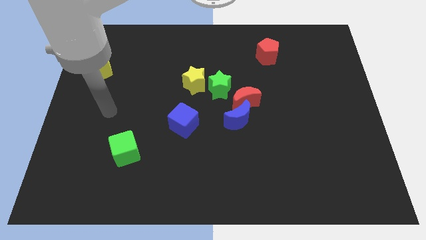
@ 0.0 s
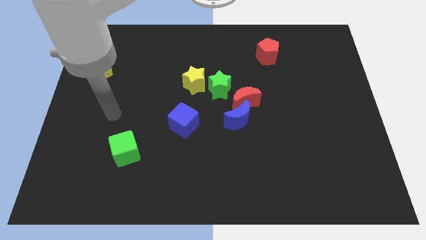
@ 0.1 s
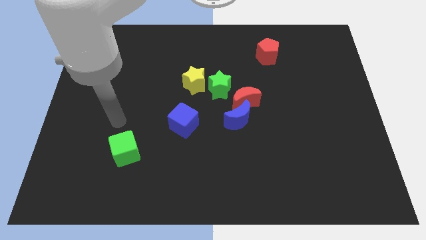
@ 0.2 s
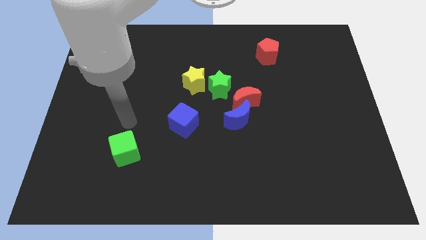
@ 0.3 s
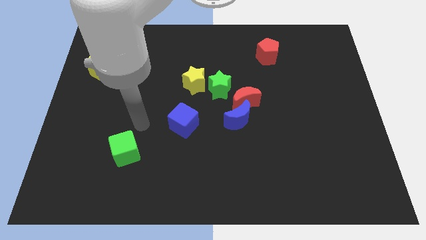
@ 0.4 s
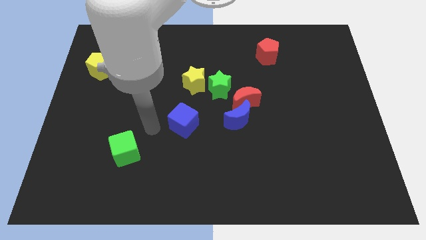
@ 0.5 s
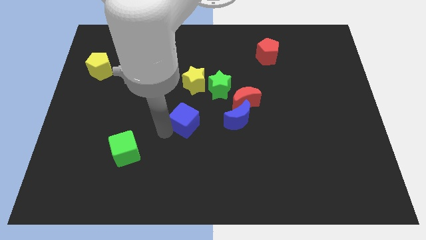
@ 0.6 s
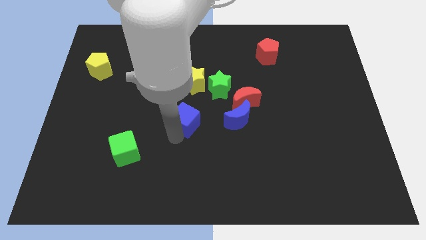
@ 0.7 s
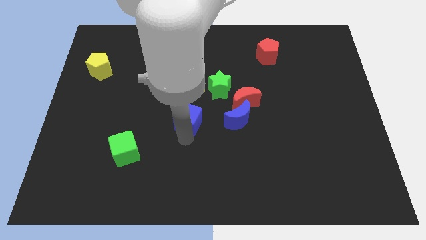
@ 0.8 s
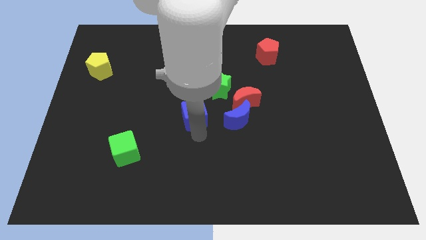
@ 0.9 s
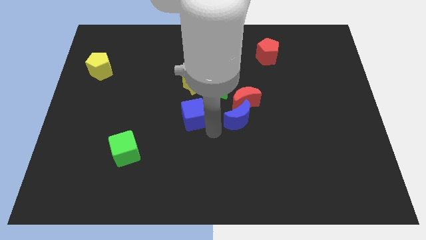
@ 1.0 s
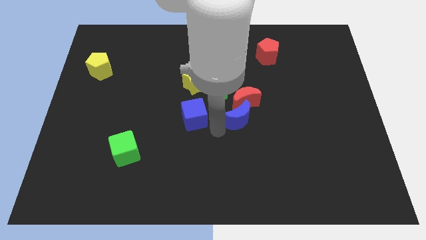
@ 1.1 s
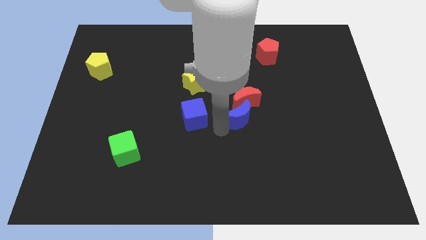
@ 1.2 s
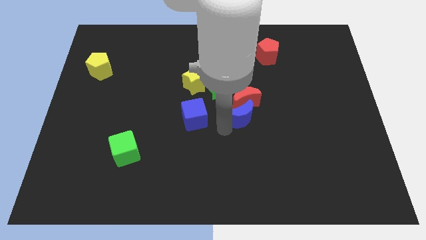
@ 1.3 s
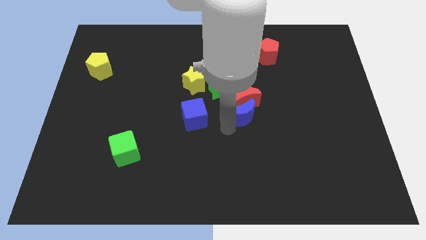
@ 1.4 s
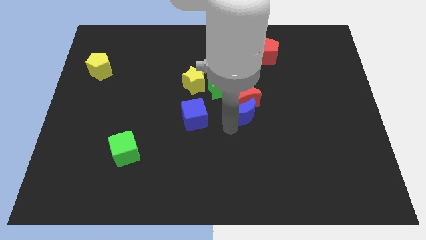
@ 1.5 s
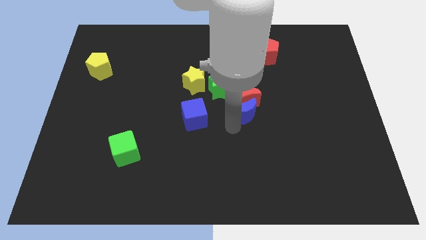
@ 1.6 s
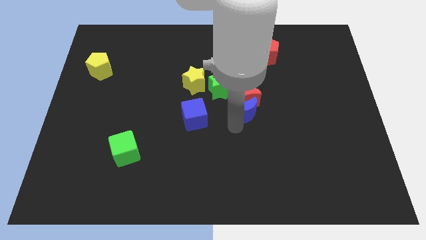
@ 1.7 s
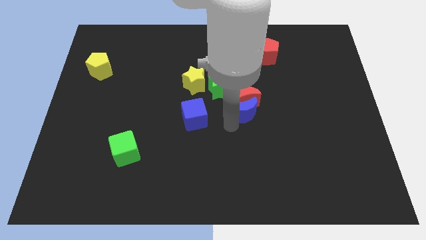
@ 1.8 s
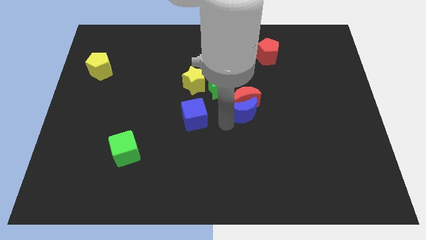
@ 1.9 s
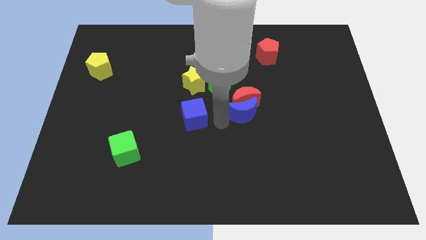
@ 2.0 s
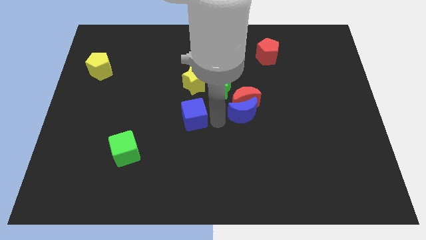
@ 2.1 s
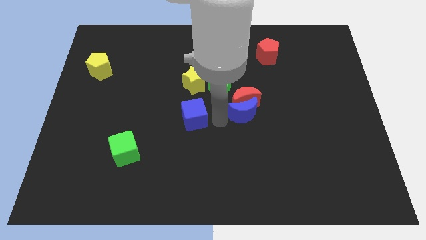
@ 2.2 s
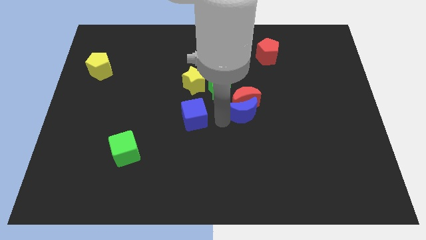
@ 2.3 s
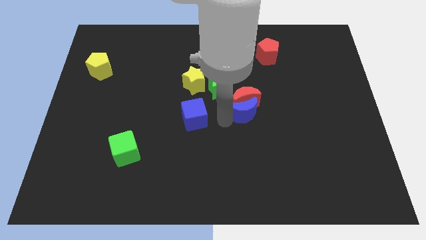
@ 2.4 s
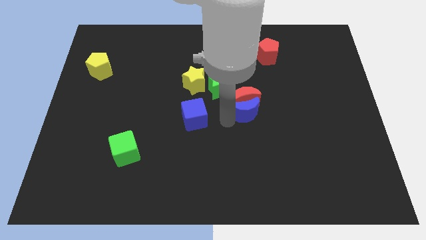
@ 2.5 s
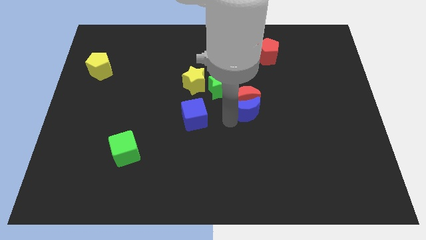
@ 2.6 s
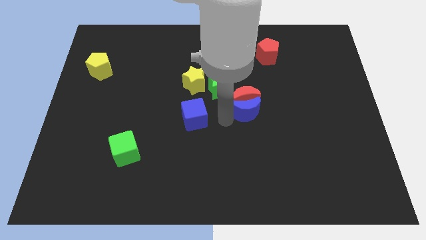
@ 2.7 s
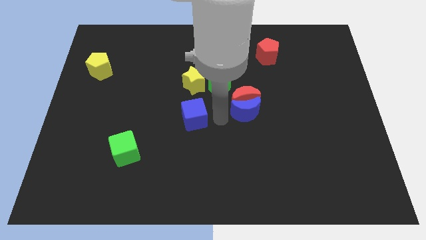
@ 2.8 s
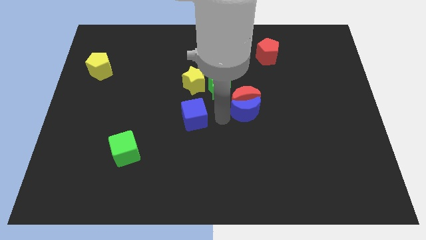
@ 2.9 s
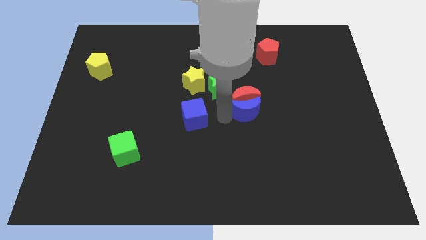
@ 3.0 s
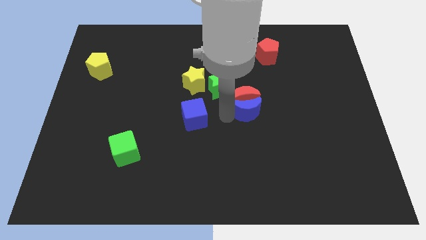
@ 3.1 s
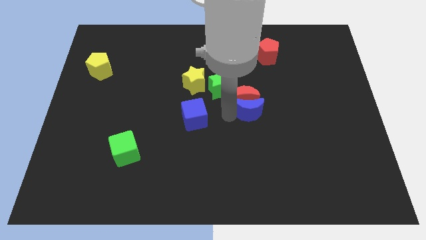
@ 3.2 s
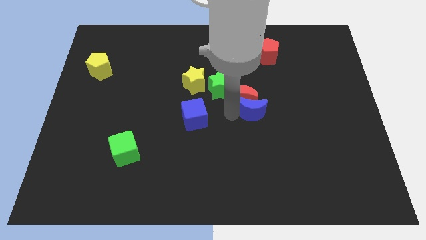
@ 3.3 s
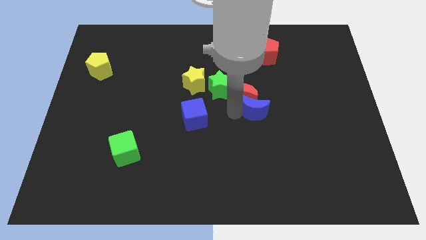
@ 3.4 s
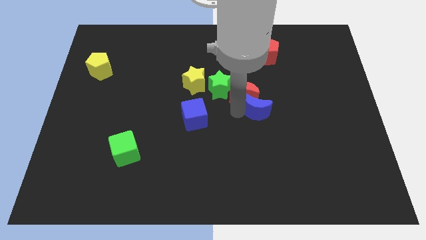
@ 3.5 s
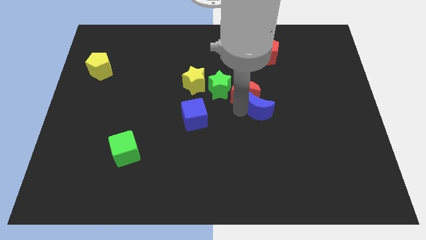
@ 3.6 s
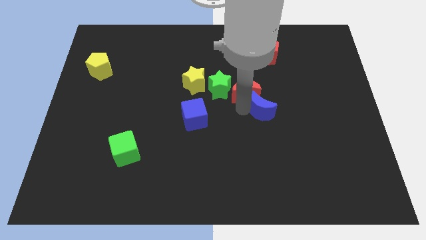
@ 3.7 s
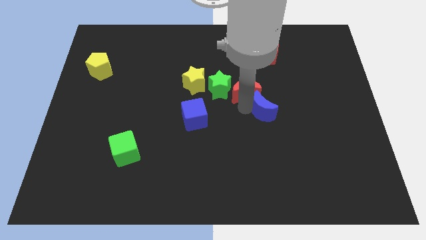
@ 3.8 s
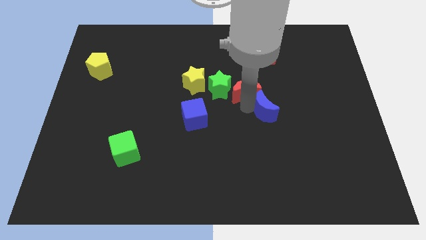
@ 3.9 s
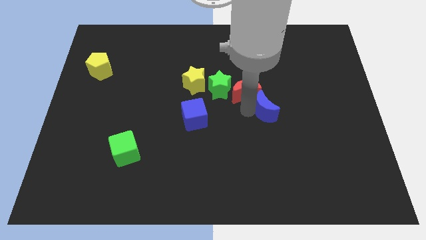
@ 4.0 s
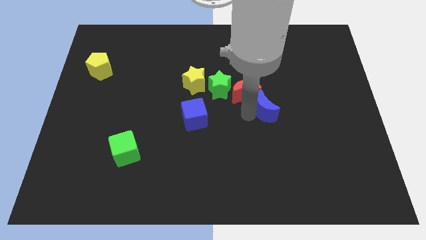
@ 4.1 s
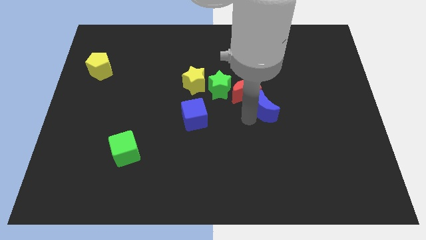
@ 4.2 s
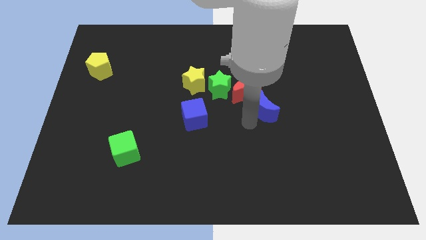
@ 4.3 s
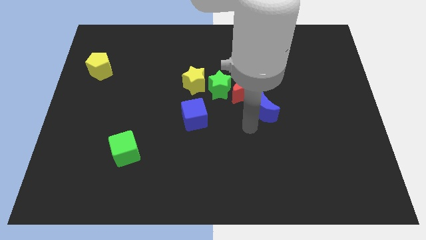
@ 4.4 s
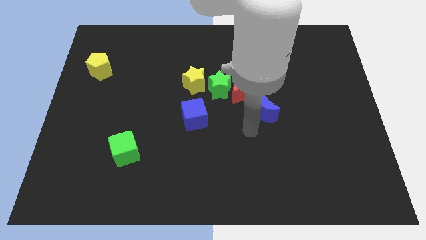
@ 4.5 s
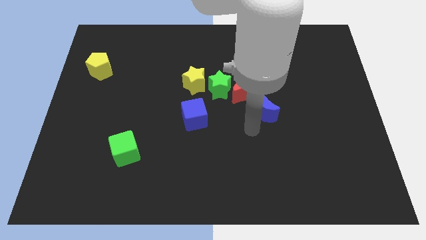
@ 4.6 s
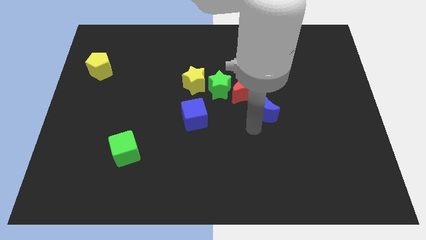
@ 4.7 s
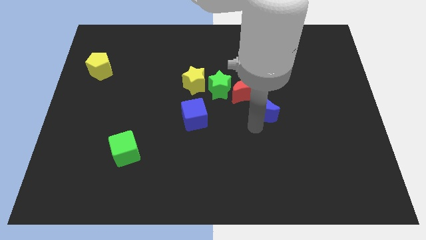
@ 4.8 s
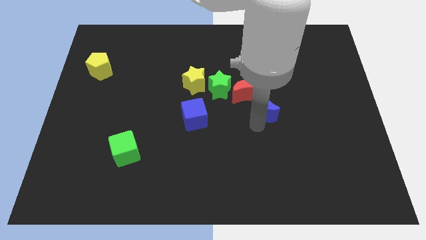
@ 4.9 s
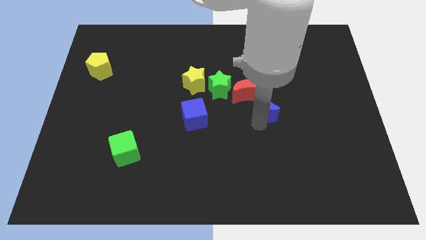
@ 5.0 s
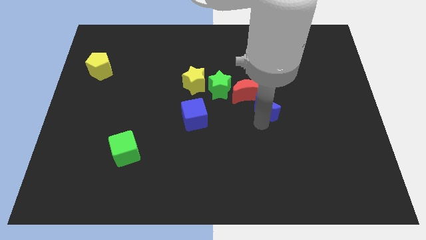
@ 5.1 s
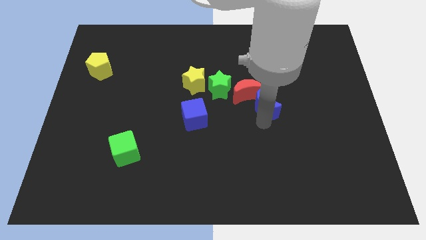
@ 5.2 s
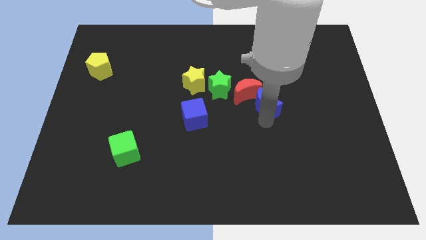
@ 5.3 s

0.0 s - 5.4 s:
slightly move the blue moon diagonally up and right

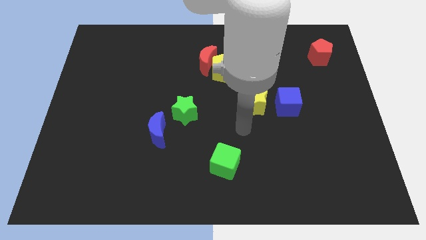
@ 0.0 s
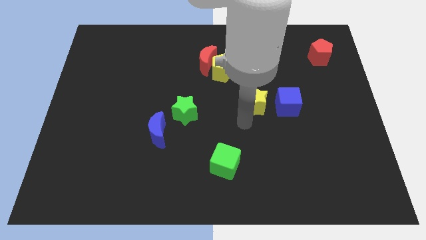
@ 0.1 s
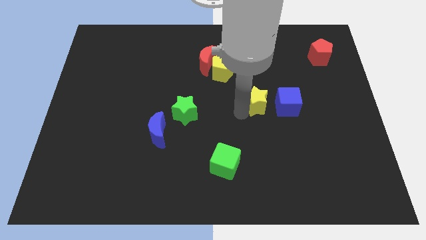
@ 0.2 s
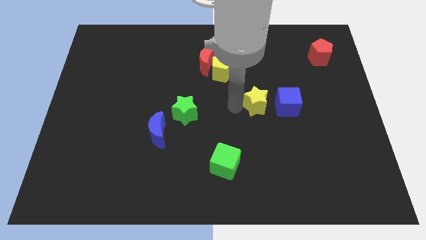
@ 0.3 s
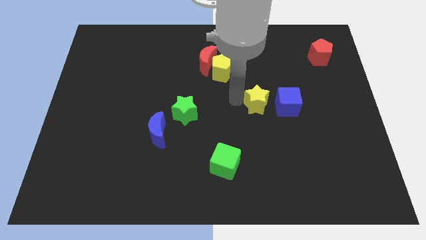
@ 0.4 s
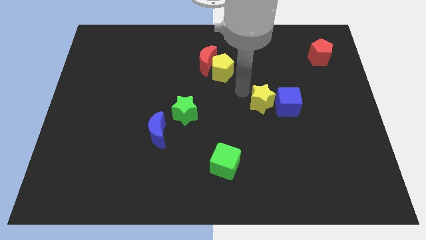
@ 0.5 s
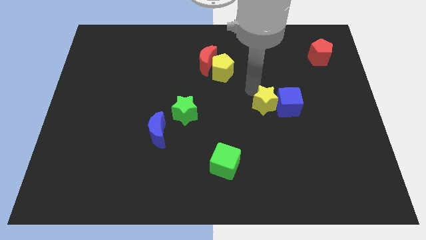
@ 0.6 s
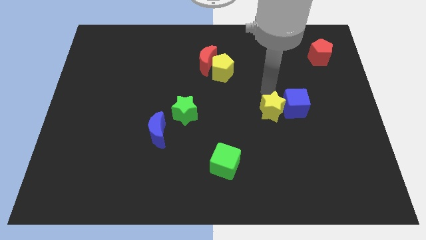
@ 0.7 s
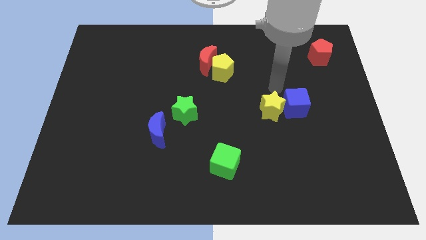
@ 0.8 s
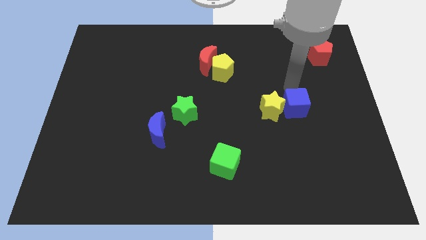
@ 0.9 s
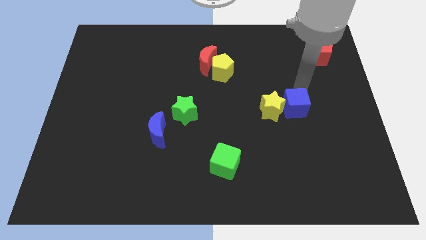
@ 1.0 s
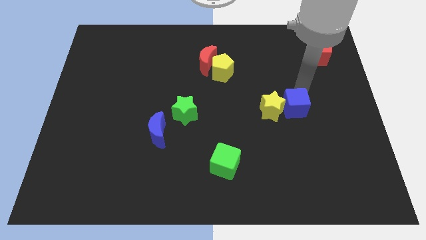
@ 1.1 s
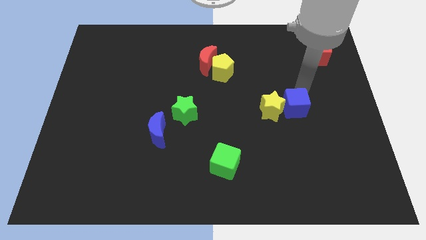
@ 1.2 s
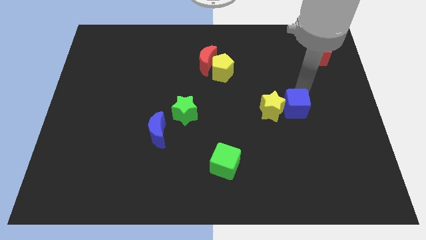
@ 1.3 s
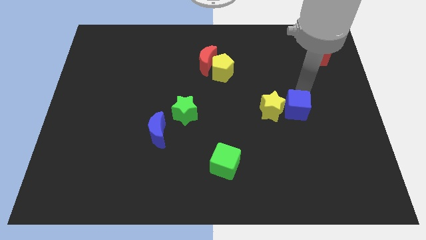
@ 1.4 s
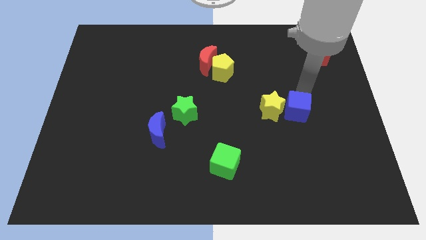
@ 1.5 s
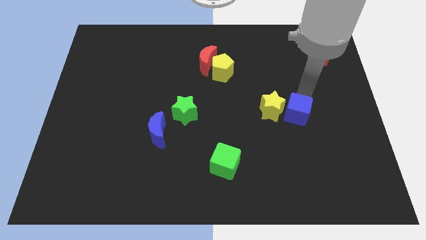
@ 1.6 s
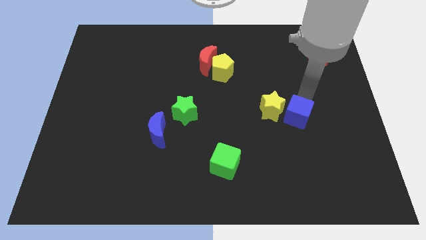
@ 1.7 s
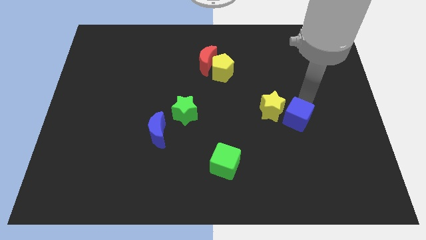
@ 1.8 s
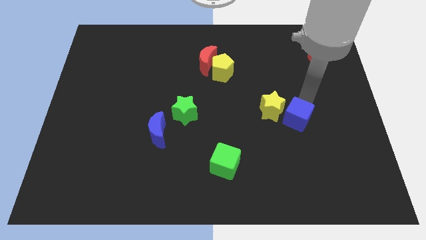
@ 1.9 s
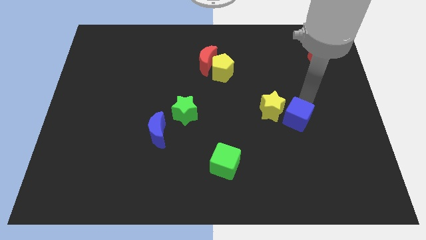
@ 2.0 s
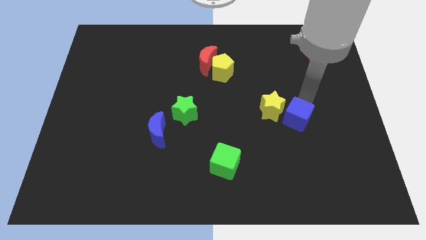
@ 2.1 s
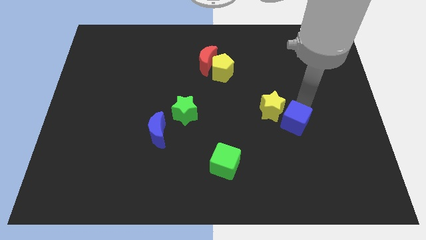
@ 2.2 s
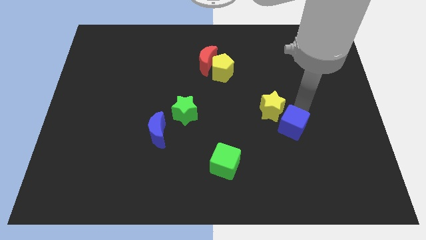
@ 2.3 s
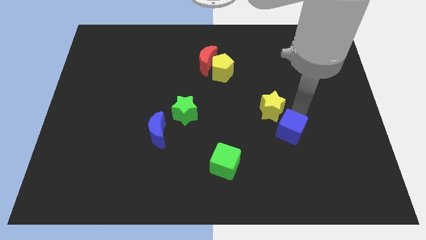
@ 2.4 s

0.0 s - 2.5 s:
push the blue cube somewhat down
